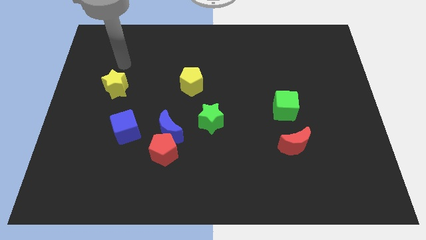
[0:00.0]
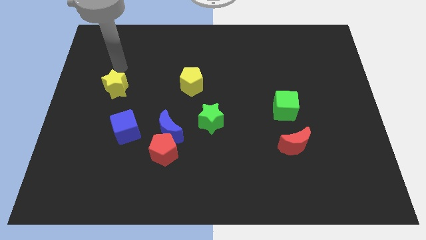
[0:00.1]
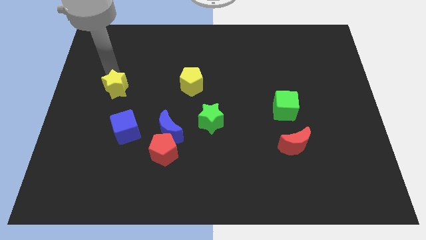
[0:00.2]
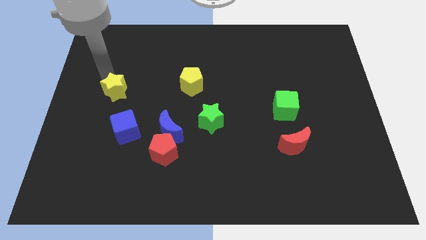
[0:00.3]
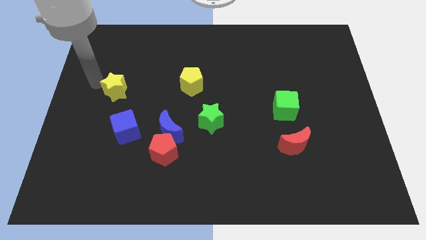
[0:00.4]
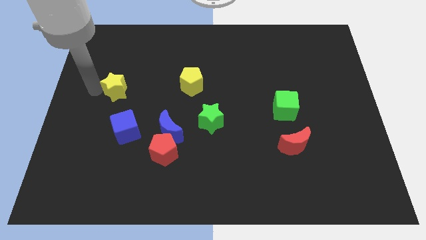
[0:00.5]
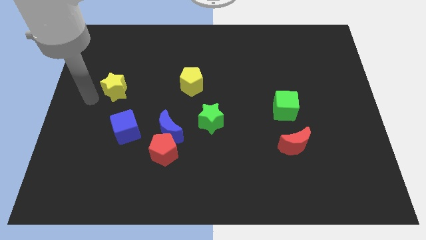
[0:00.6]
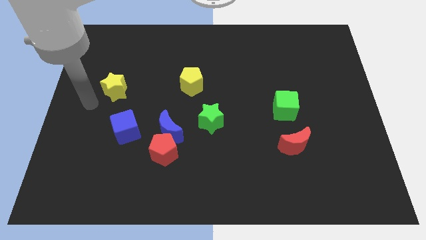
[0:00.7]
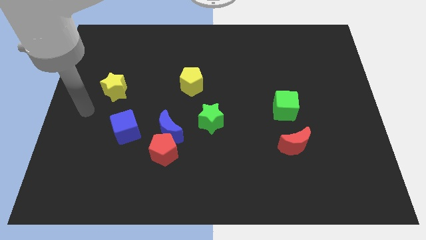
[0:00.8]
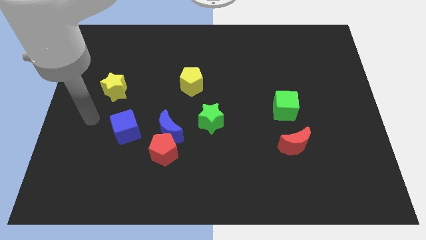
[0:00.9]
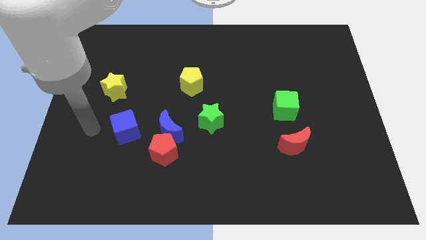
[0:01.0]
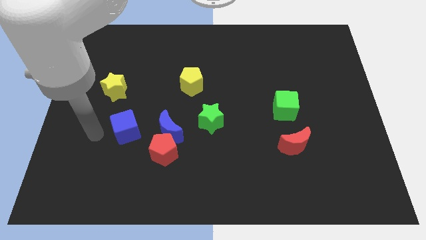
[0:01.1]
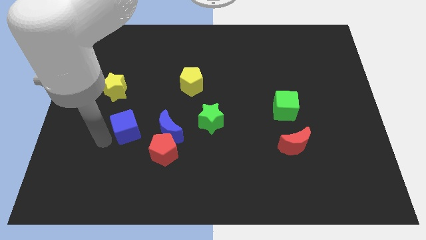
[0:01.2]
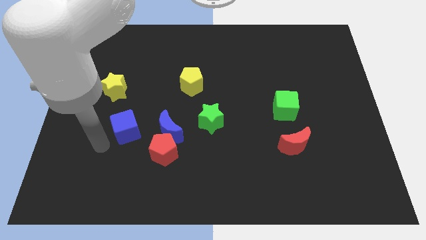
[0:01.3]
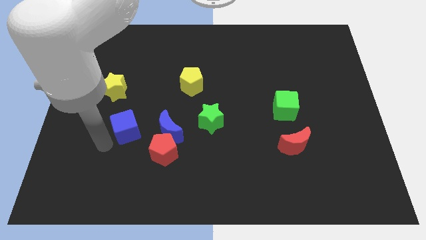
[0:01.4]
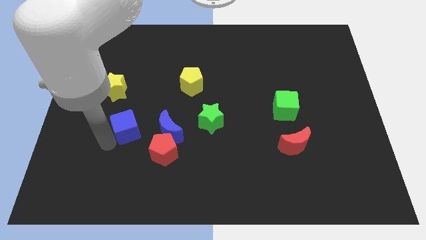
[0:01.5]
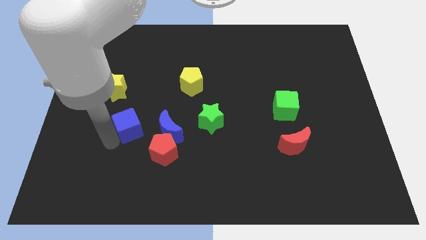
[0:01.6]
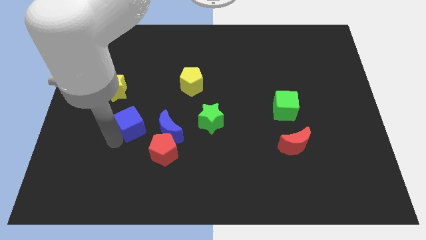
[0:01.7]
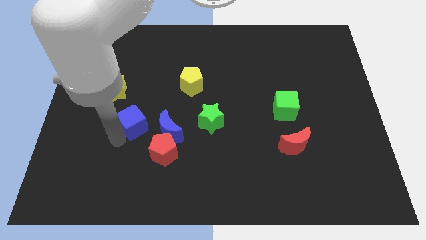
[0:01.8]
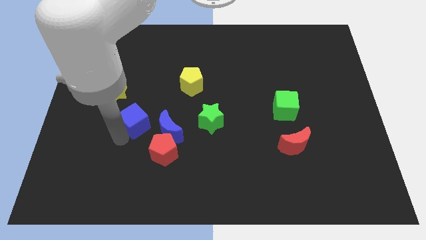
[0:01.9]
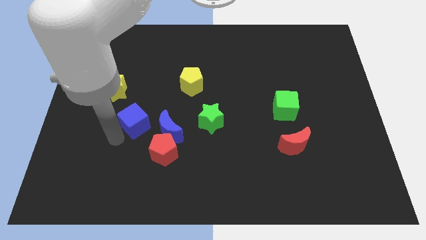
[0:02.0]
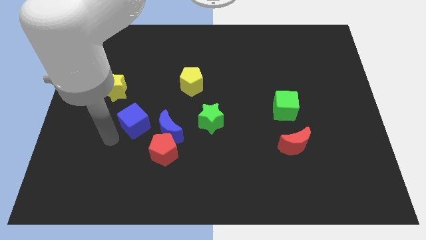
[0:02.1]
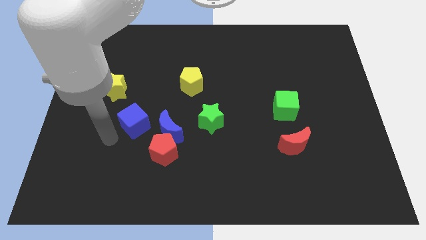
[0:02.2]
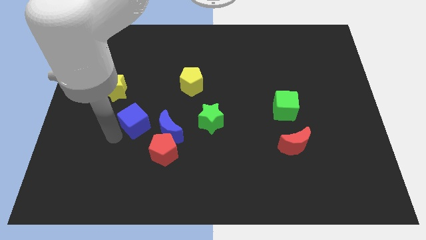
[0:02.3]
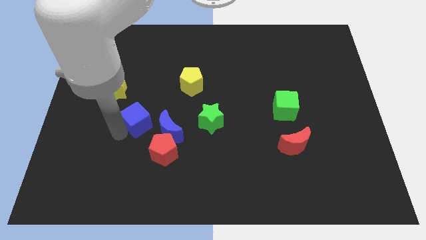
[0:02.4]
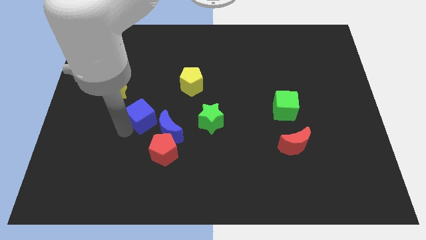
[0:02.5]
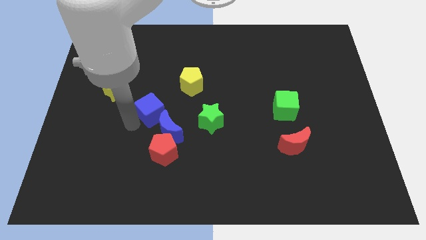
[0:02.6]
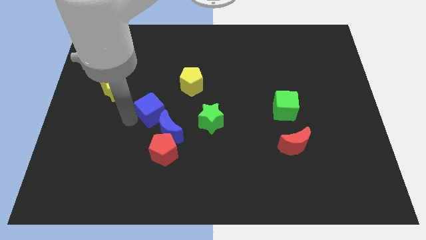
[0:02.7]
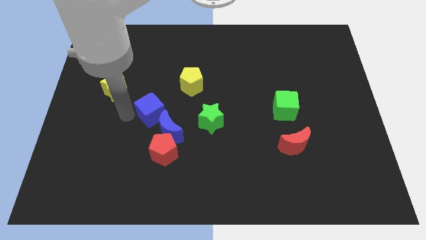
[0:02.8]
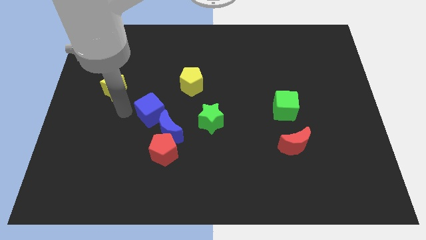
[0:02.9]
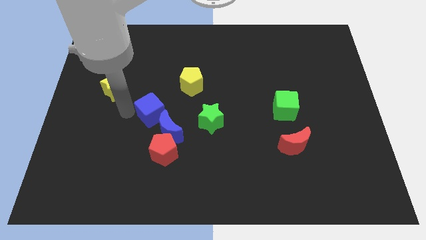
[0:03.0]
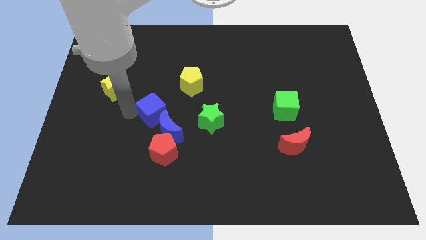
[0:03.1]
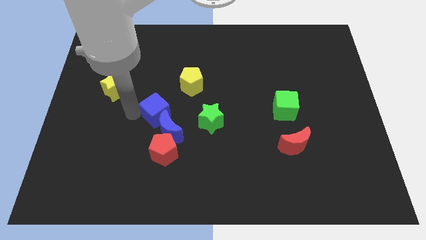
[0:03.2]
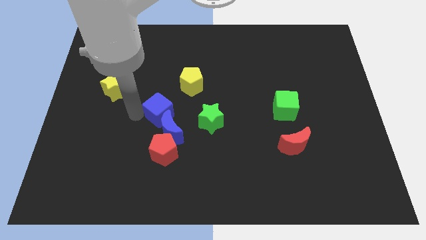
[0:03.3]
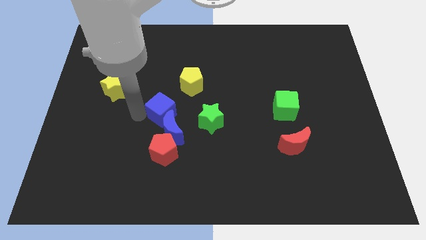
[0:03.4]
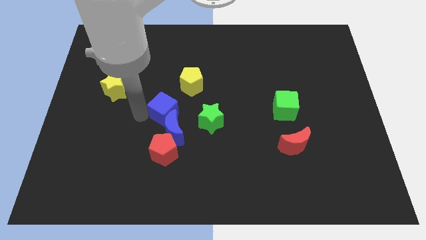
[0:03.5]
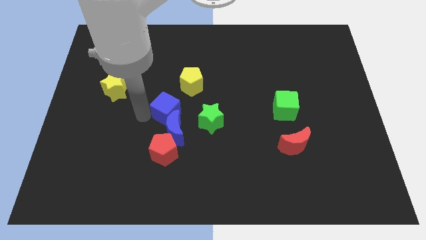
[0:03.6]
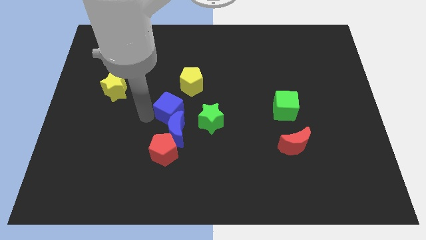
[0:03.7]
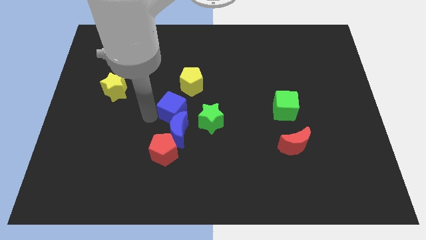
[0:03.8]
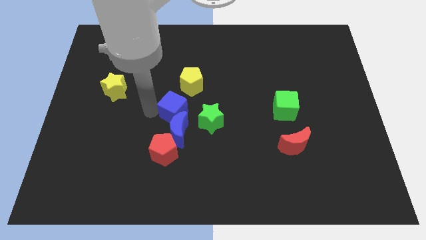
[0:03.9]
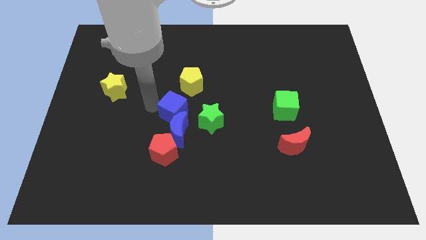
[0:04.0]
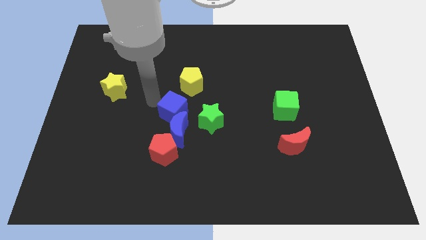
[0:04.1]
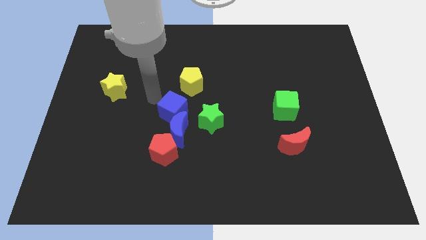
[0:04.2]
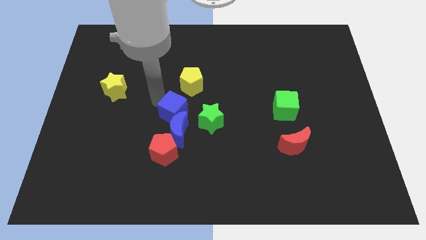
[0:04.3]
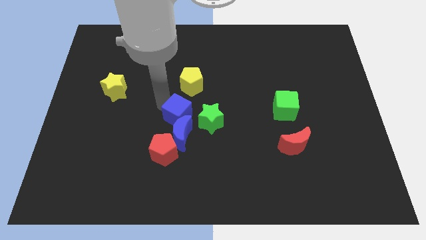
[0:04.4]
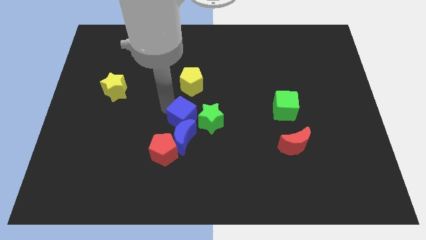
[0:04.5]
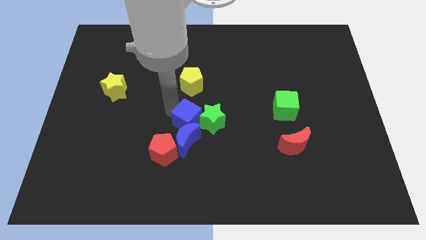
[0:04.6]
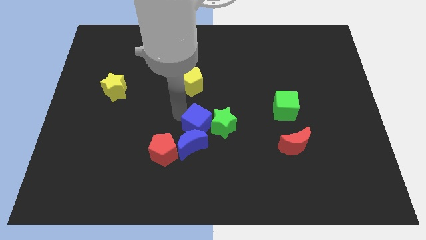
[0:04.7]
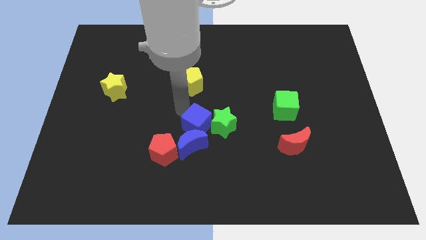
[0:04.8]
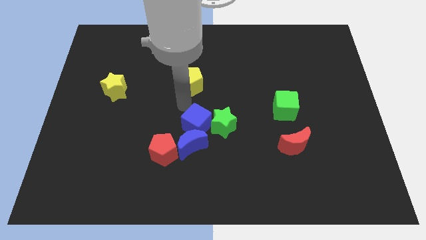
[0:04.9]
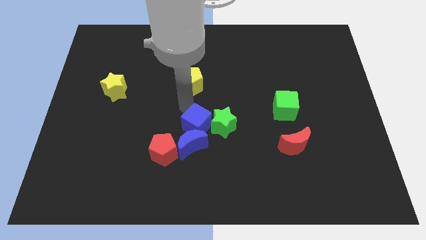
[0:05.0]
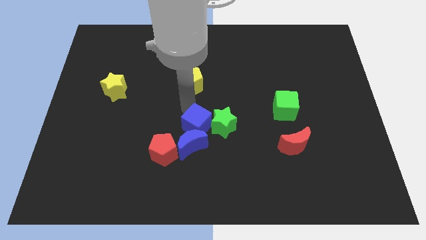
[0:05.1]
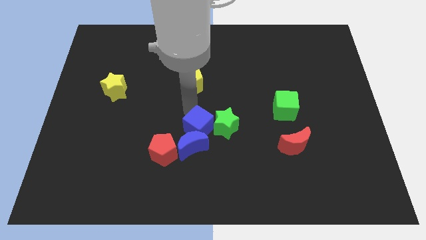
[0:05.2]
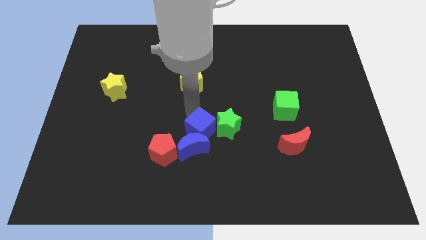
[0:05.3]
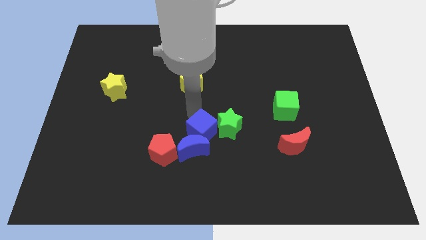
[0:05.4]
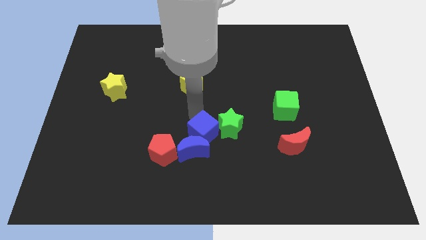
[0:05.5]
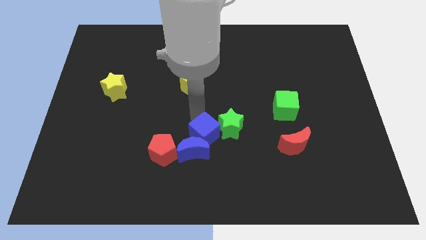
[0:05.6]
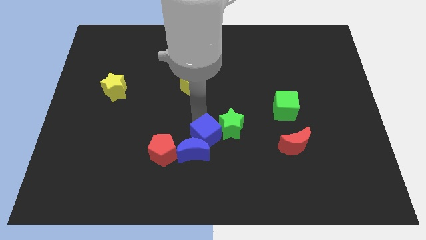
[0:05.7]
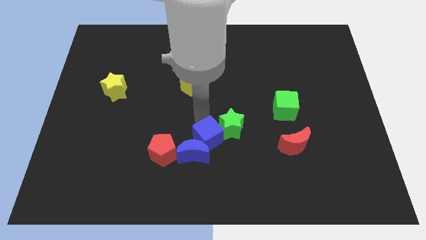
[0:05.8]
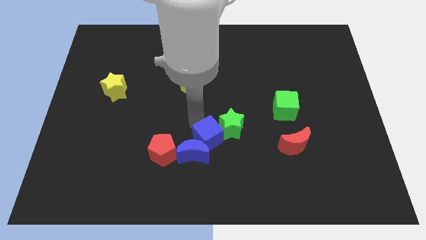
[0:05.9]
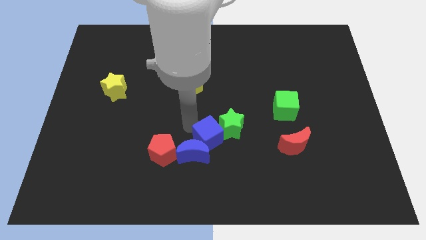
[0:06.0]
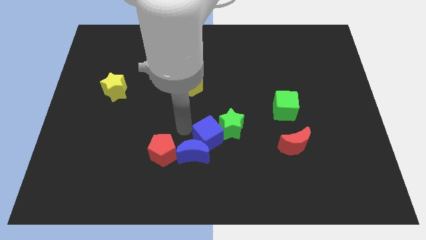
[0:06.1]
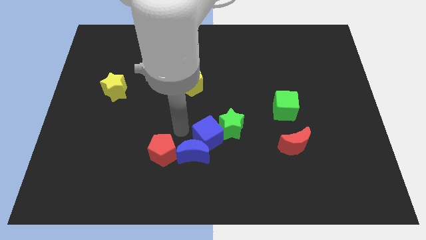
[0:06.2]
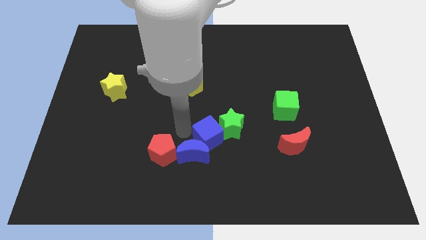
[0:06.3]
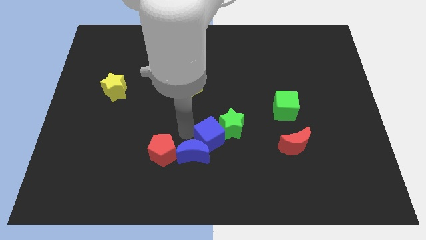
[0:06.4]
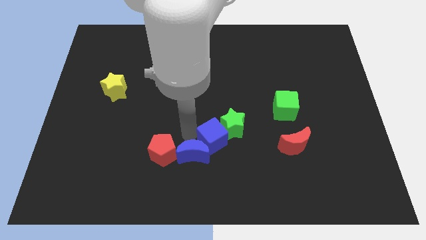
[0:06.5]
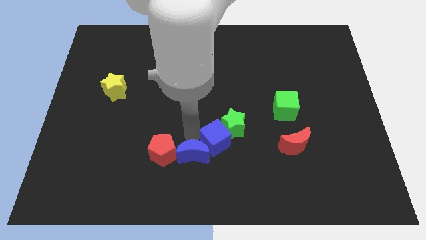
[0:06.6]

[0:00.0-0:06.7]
slide the blue cube to the right

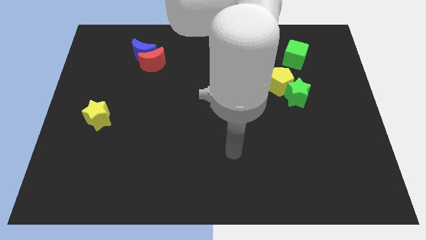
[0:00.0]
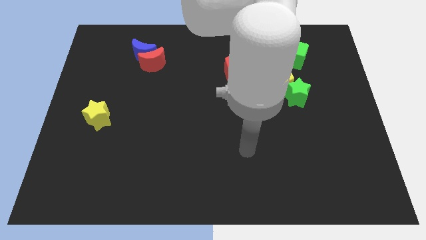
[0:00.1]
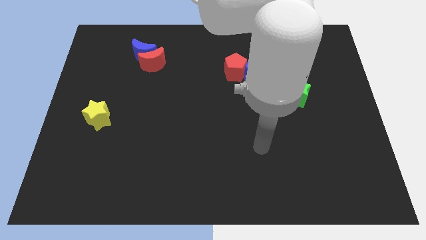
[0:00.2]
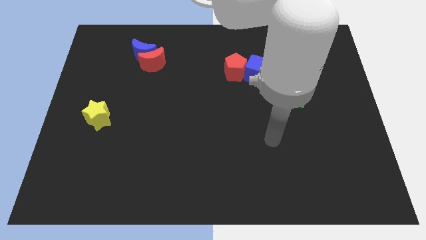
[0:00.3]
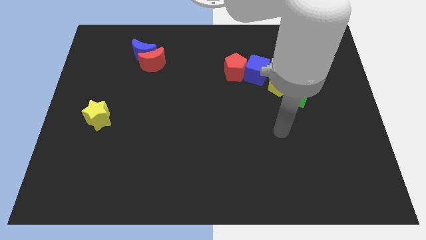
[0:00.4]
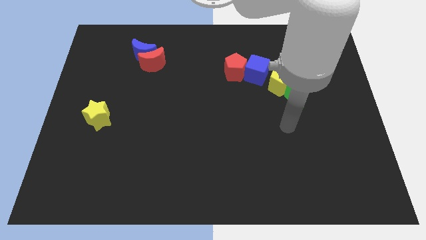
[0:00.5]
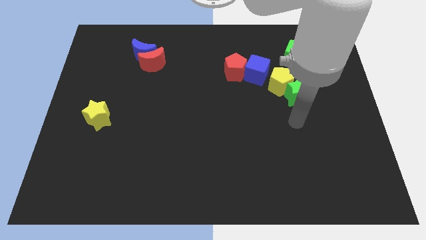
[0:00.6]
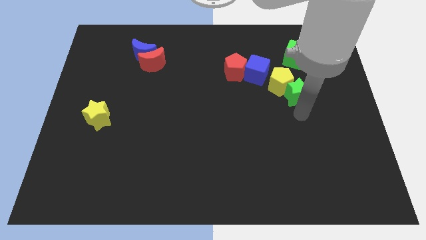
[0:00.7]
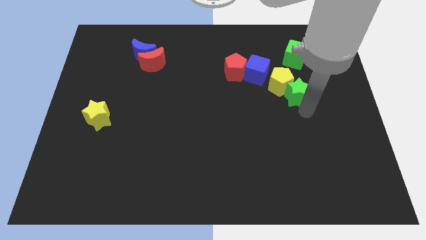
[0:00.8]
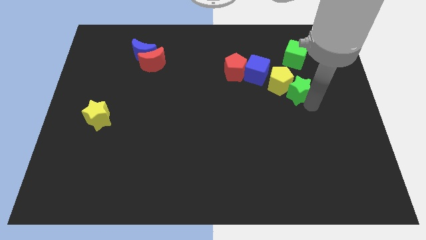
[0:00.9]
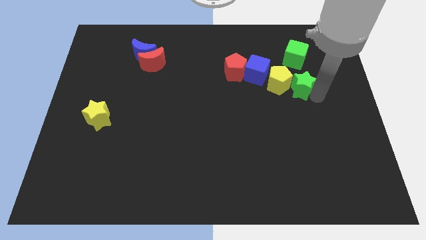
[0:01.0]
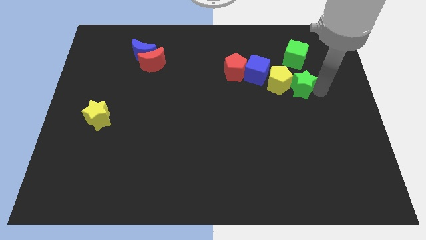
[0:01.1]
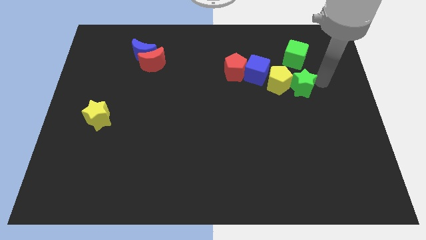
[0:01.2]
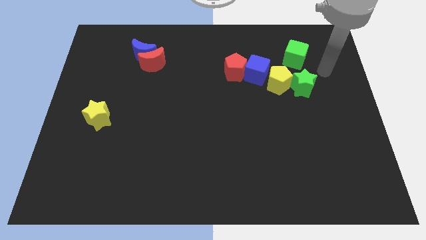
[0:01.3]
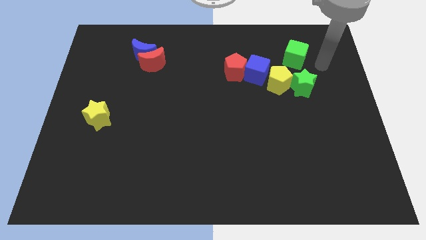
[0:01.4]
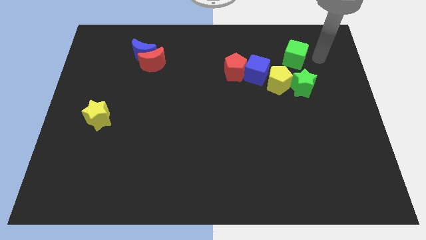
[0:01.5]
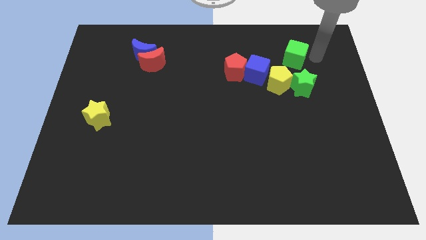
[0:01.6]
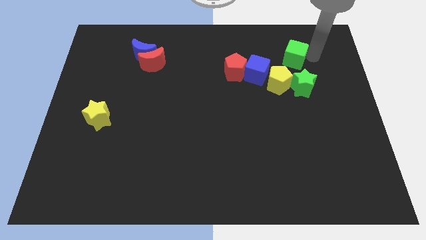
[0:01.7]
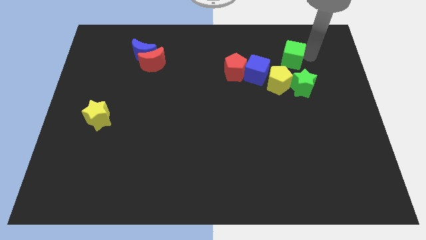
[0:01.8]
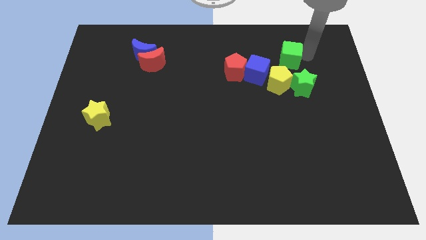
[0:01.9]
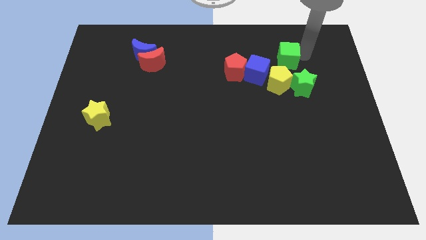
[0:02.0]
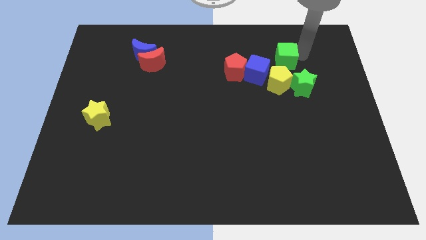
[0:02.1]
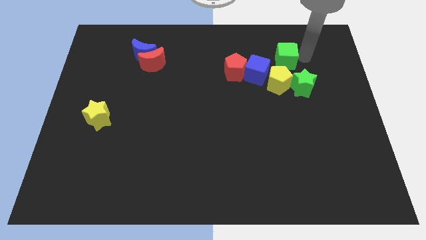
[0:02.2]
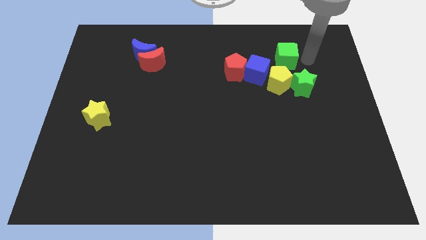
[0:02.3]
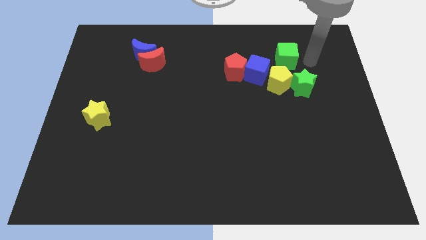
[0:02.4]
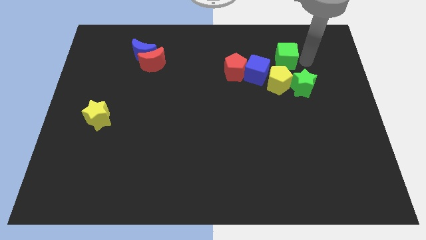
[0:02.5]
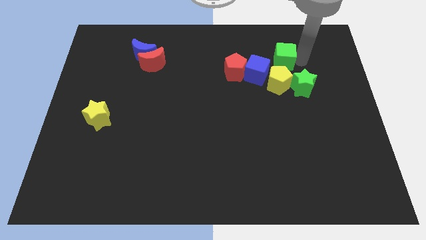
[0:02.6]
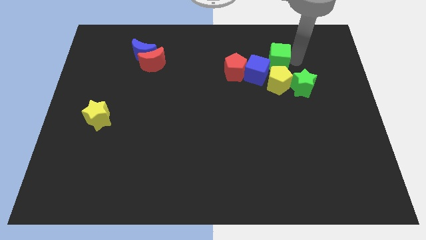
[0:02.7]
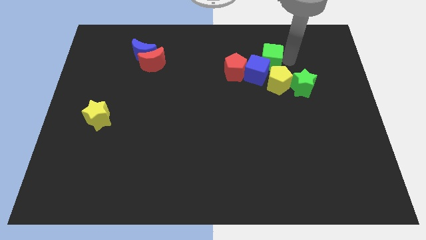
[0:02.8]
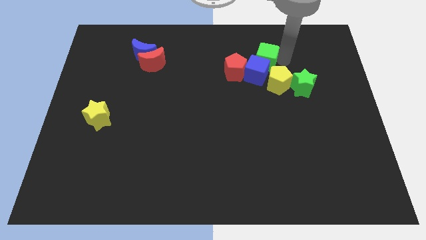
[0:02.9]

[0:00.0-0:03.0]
slightly push the green cube left
